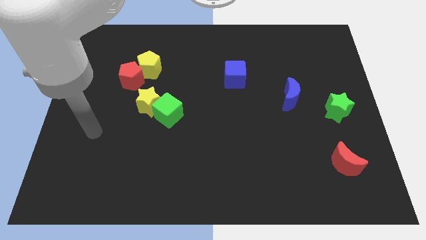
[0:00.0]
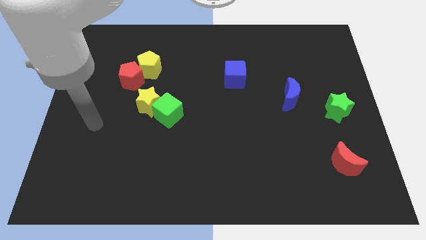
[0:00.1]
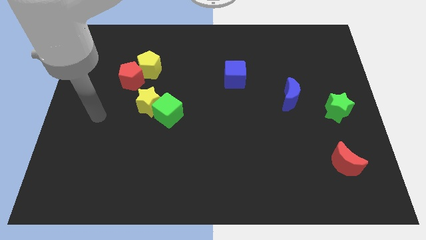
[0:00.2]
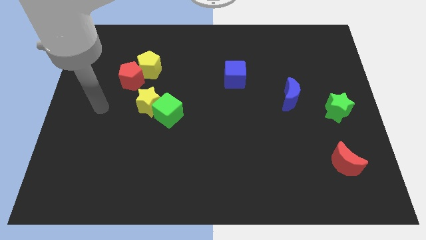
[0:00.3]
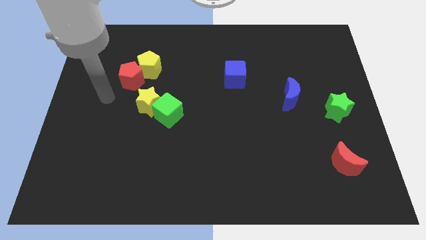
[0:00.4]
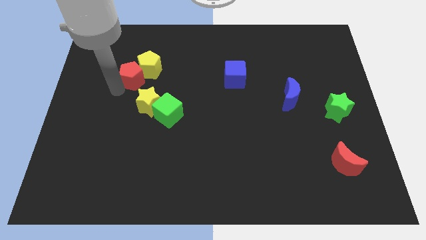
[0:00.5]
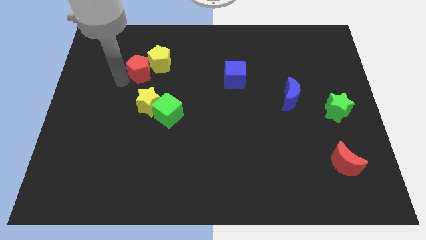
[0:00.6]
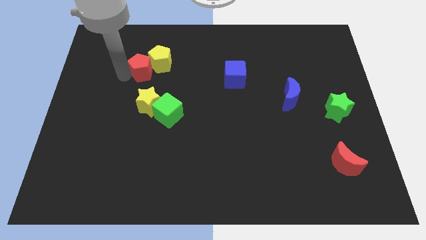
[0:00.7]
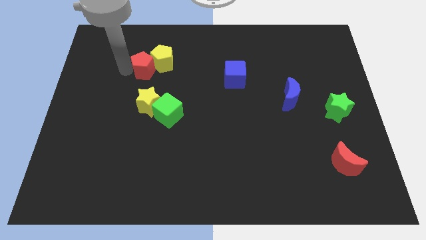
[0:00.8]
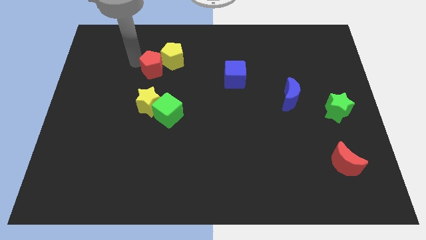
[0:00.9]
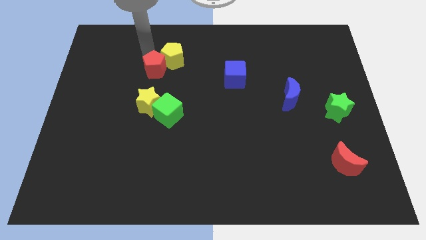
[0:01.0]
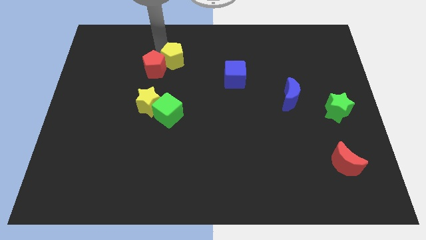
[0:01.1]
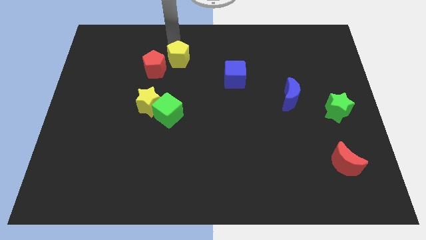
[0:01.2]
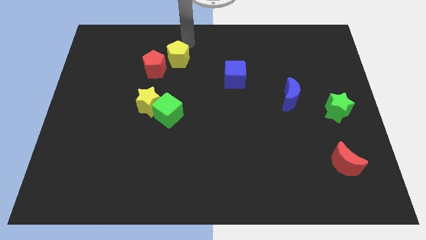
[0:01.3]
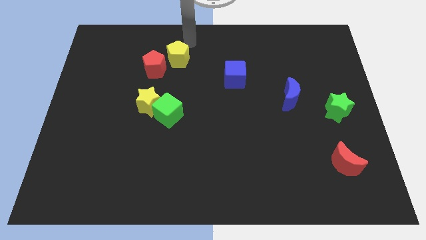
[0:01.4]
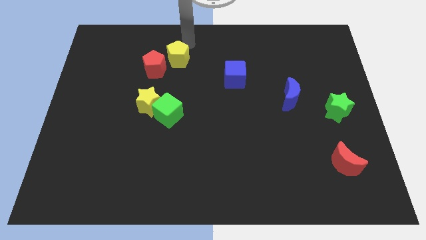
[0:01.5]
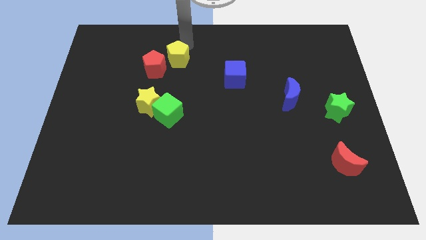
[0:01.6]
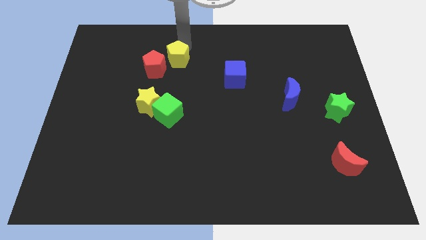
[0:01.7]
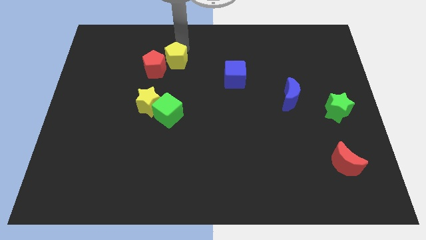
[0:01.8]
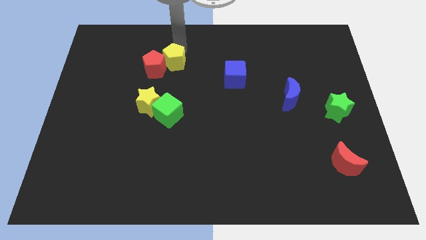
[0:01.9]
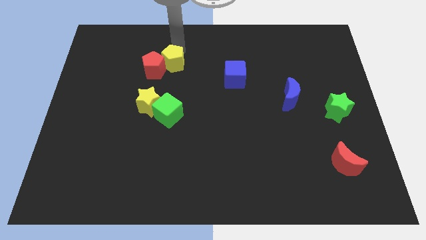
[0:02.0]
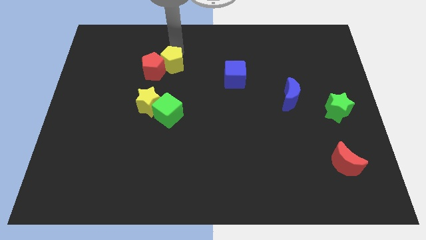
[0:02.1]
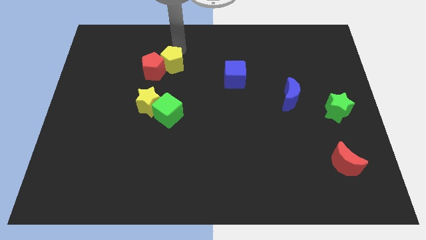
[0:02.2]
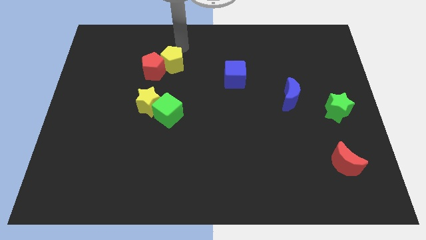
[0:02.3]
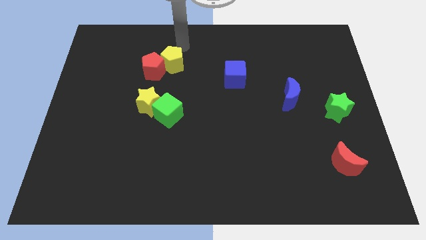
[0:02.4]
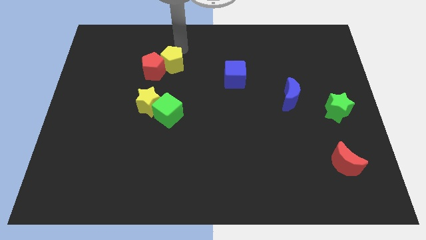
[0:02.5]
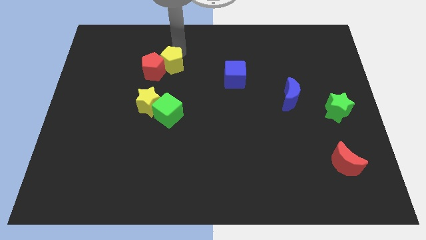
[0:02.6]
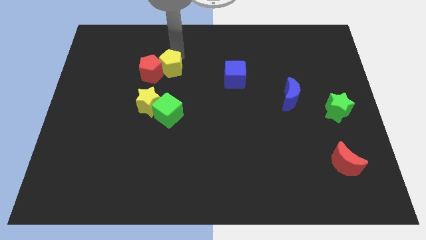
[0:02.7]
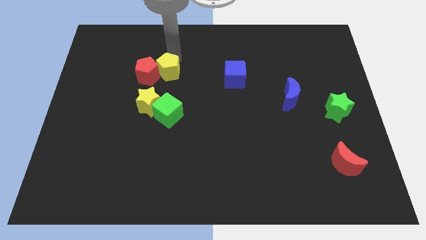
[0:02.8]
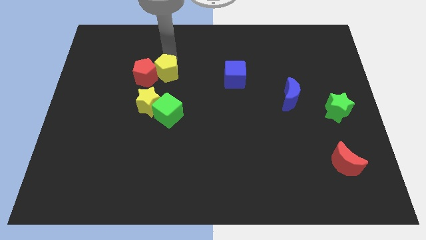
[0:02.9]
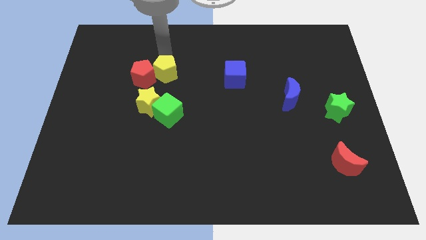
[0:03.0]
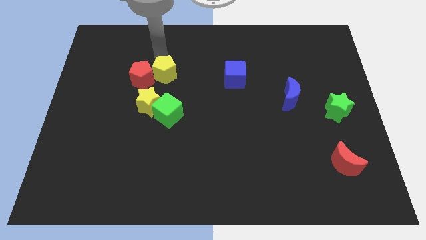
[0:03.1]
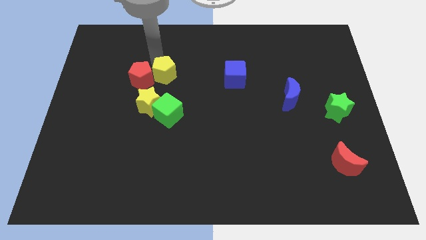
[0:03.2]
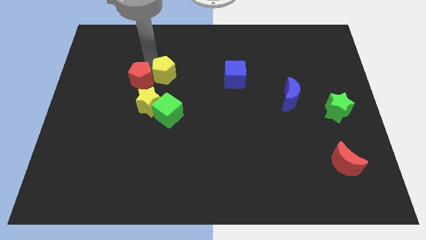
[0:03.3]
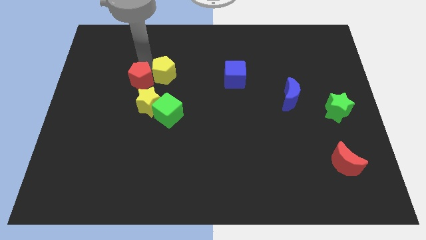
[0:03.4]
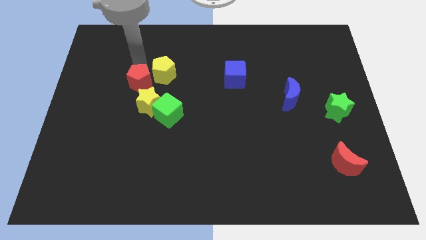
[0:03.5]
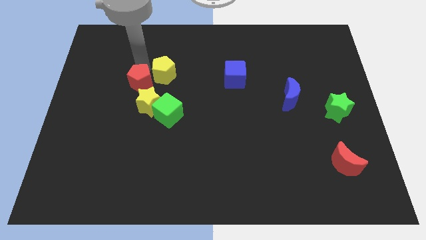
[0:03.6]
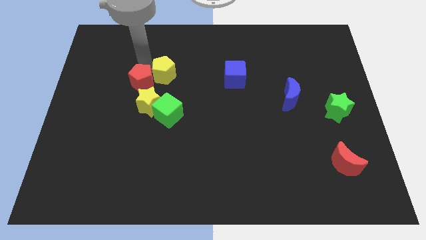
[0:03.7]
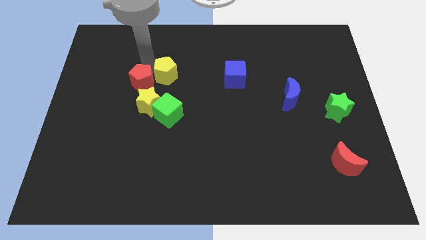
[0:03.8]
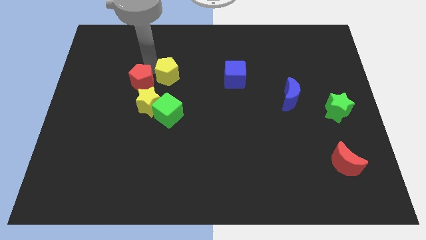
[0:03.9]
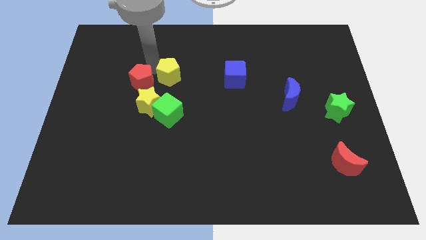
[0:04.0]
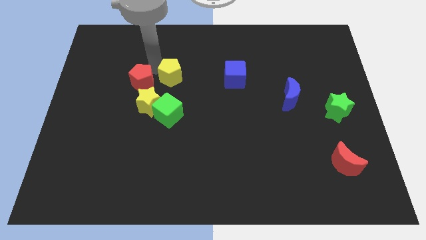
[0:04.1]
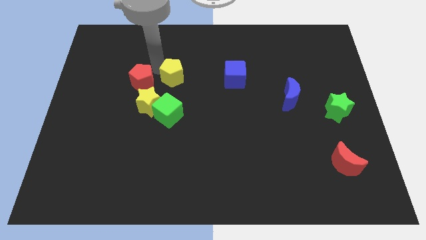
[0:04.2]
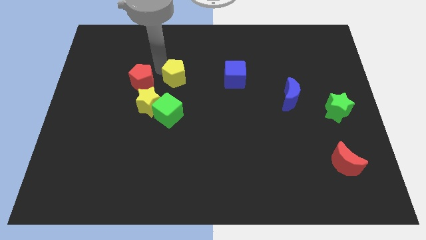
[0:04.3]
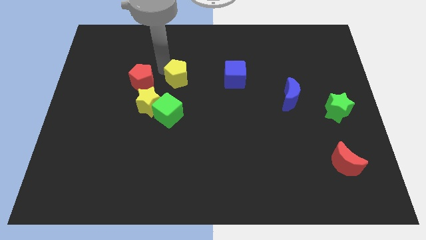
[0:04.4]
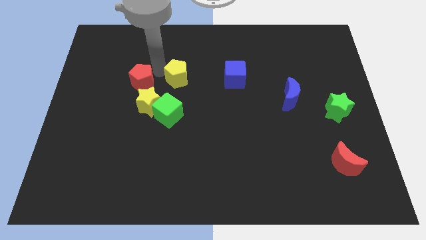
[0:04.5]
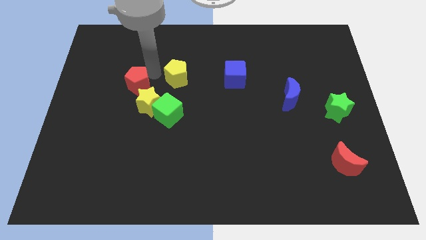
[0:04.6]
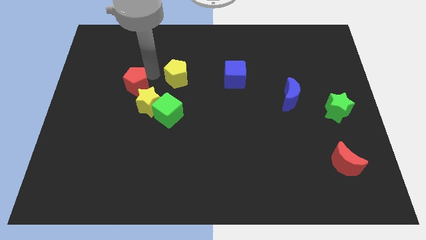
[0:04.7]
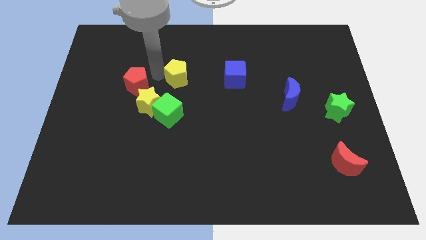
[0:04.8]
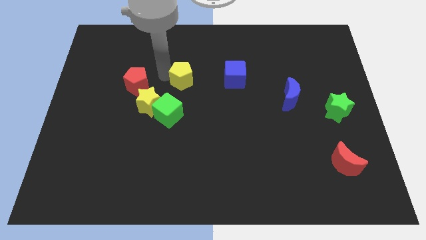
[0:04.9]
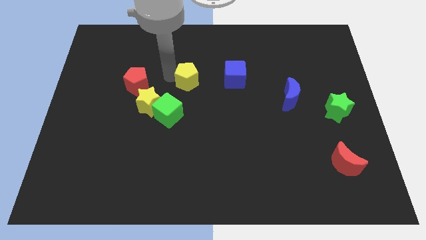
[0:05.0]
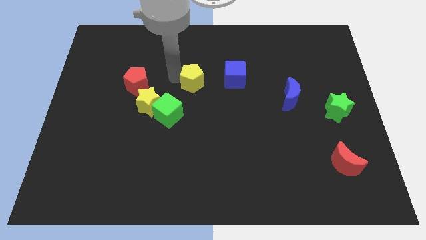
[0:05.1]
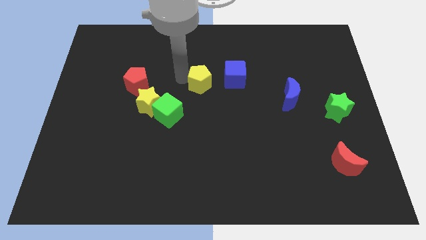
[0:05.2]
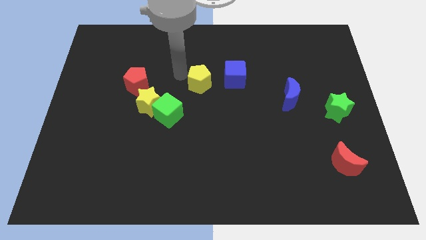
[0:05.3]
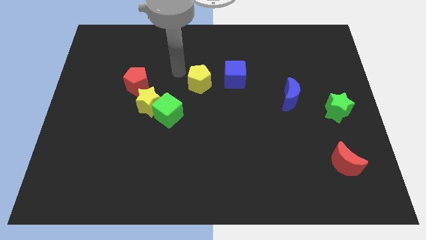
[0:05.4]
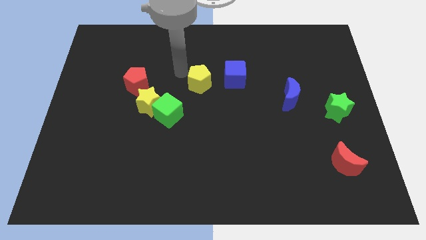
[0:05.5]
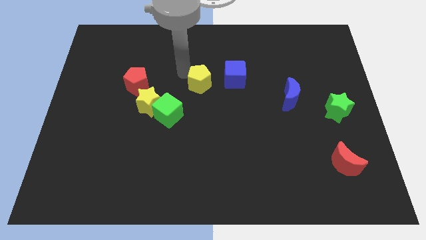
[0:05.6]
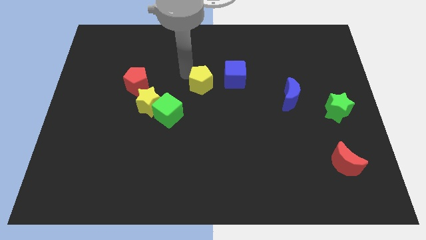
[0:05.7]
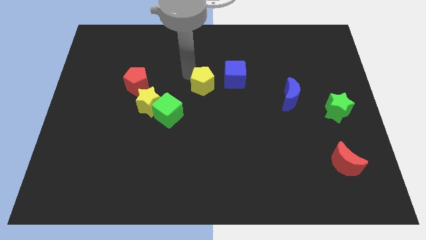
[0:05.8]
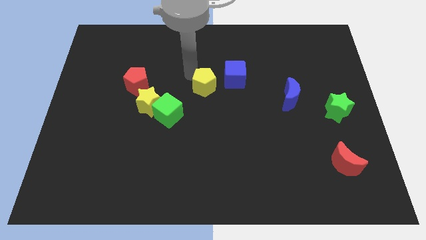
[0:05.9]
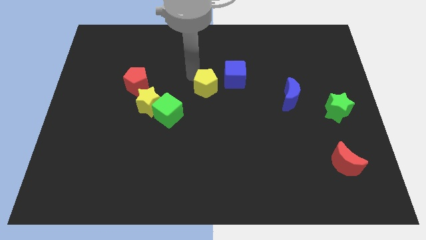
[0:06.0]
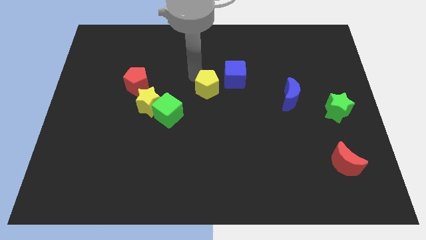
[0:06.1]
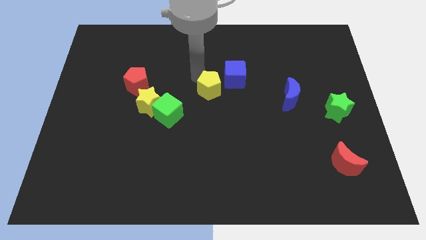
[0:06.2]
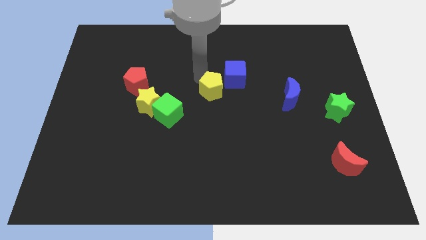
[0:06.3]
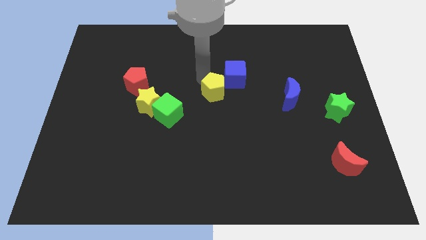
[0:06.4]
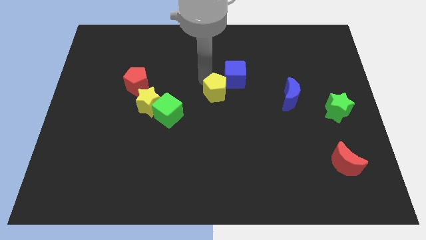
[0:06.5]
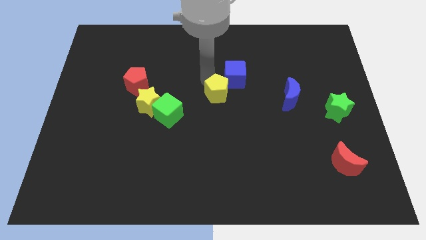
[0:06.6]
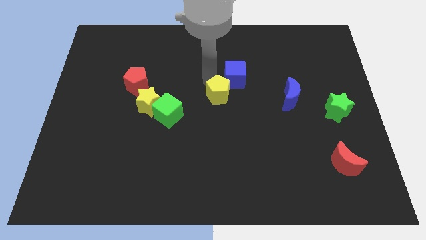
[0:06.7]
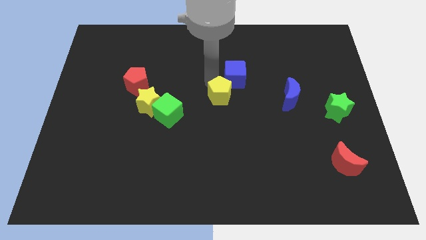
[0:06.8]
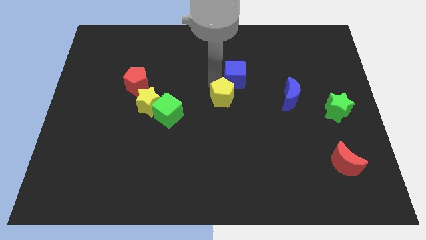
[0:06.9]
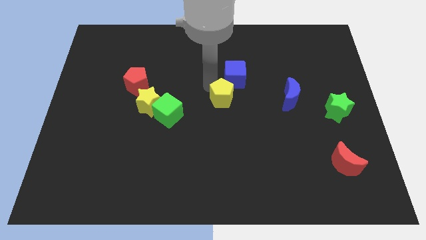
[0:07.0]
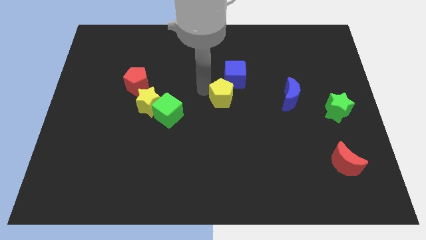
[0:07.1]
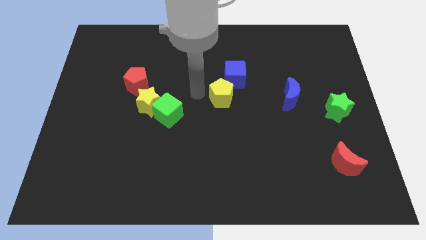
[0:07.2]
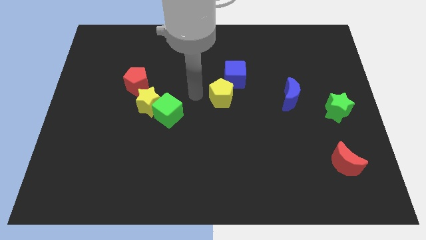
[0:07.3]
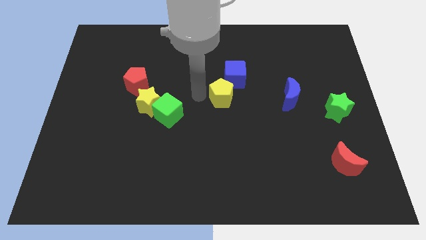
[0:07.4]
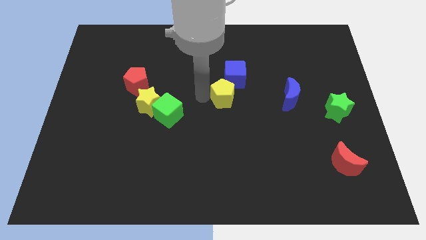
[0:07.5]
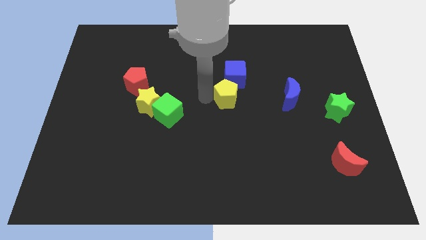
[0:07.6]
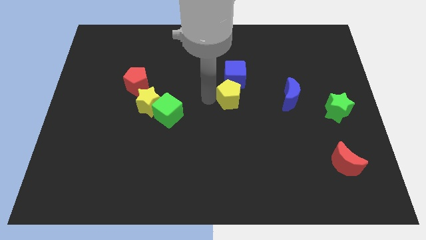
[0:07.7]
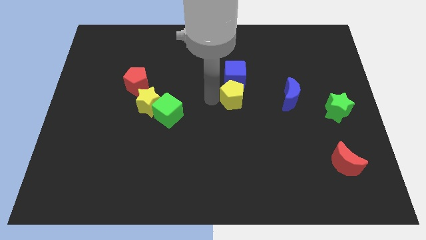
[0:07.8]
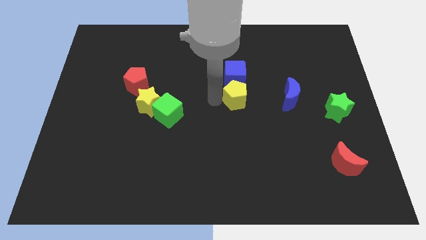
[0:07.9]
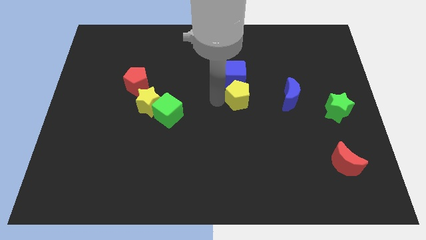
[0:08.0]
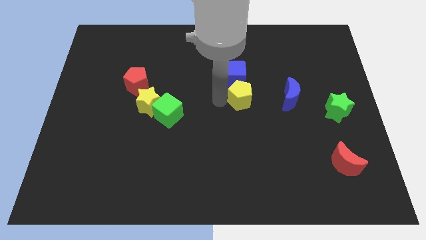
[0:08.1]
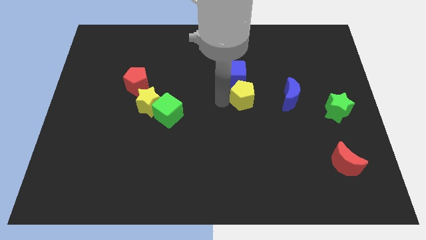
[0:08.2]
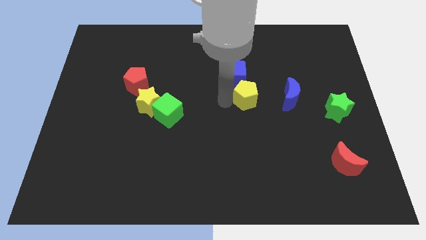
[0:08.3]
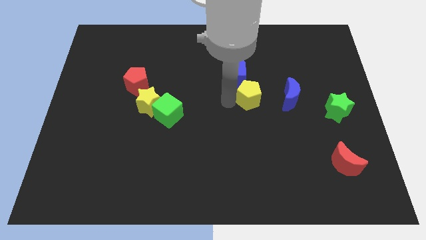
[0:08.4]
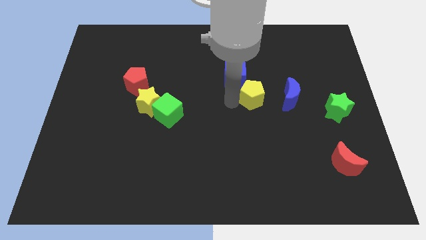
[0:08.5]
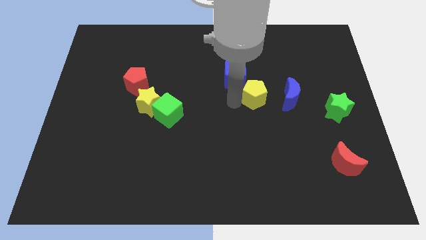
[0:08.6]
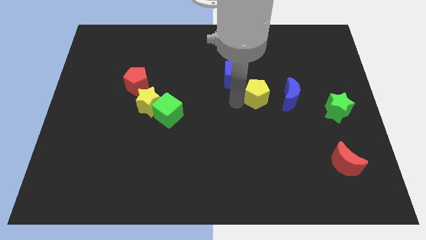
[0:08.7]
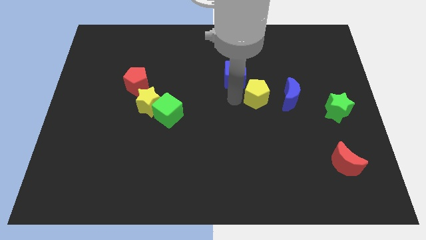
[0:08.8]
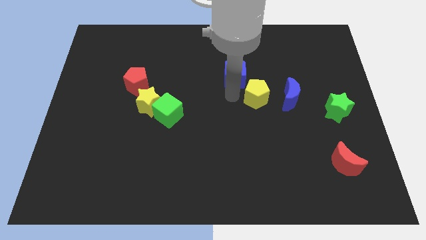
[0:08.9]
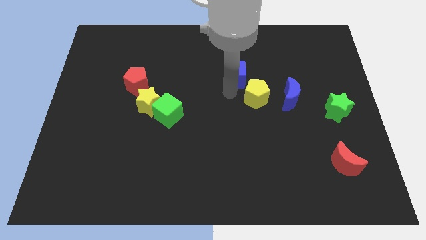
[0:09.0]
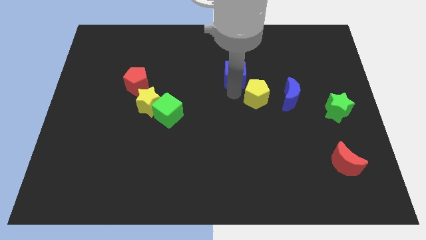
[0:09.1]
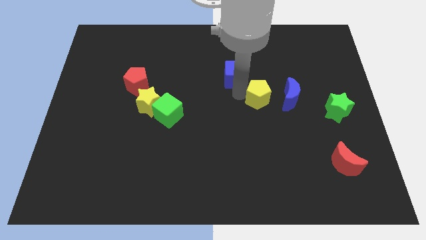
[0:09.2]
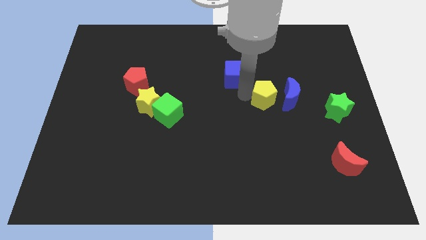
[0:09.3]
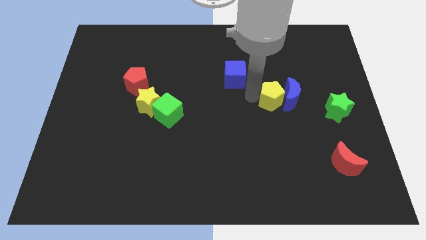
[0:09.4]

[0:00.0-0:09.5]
push the yellow pentagon towards the blue moon
